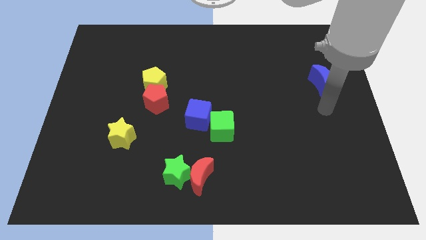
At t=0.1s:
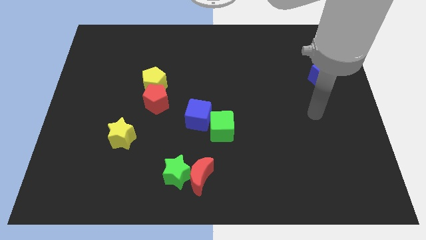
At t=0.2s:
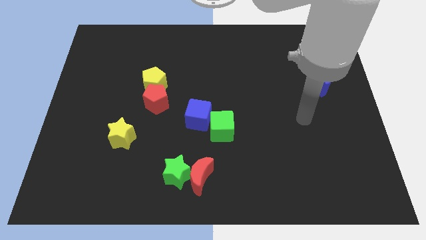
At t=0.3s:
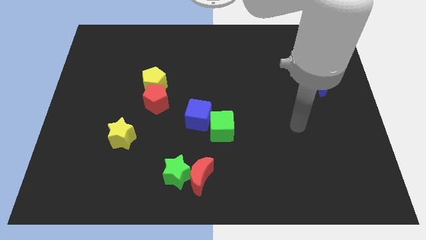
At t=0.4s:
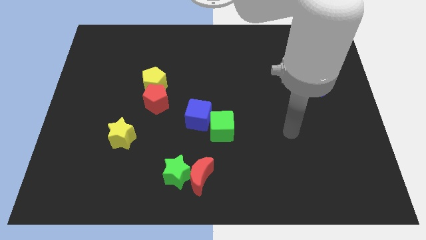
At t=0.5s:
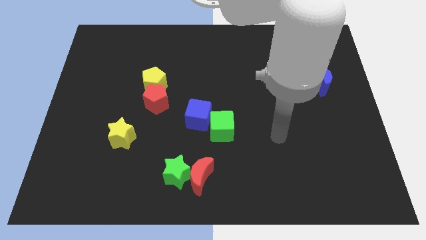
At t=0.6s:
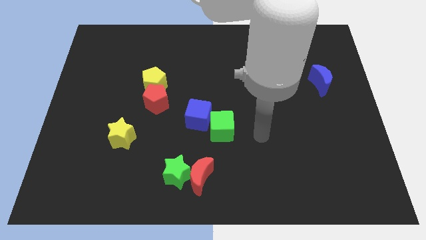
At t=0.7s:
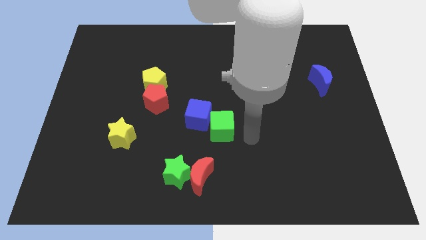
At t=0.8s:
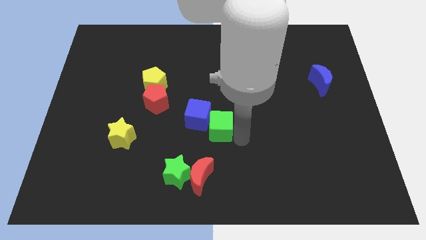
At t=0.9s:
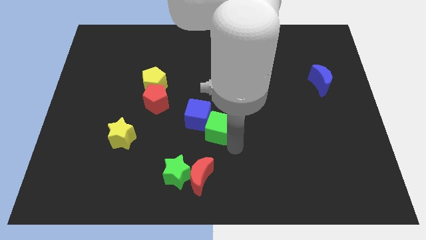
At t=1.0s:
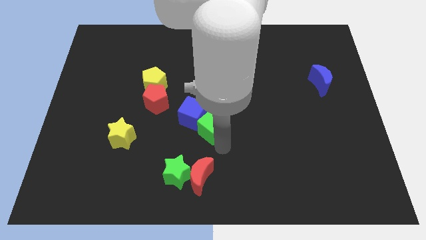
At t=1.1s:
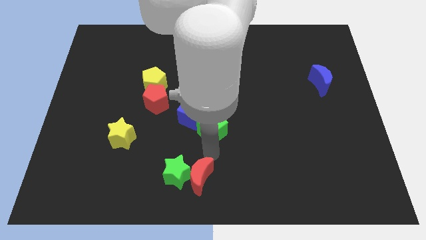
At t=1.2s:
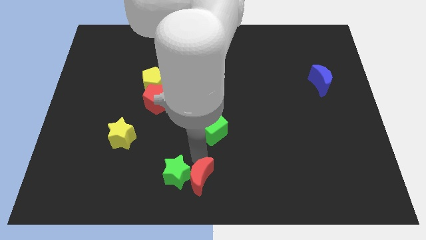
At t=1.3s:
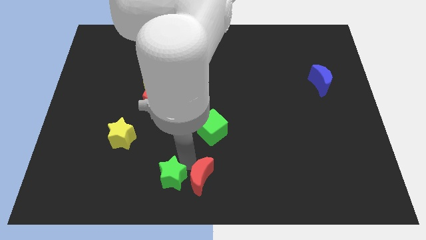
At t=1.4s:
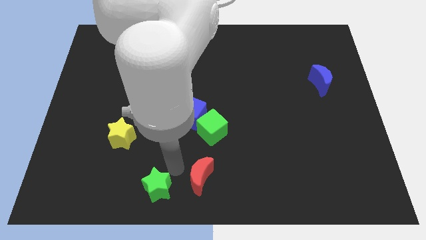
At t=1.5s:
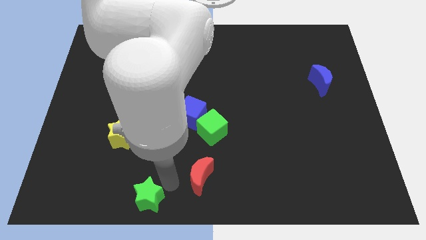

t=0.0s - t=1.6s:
move the red moon away from the green star

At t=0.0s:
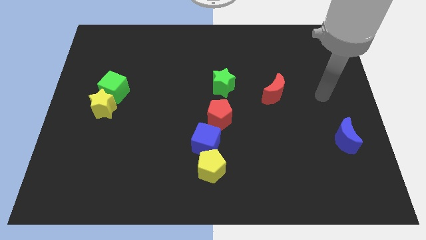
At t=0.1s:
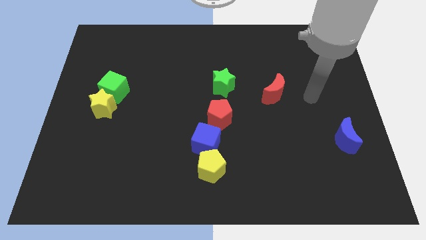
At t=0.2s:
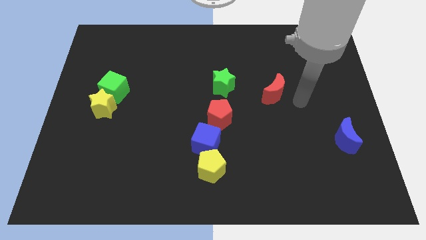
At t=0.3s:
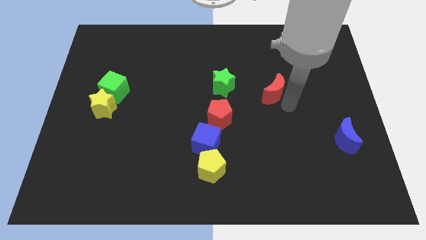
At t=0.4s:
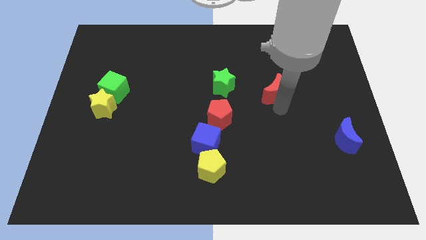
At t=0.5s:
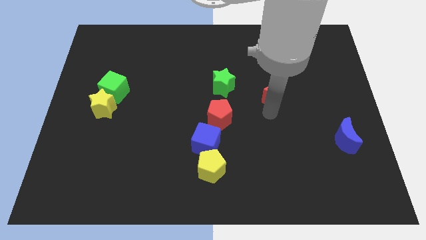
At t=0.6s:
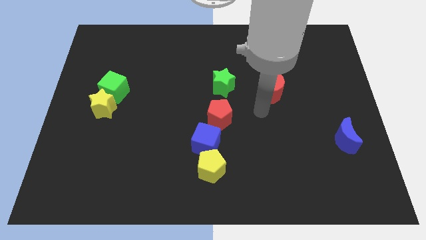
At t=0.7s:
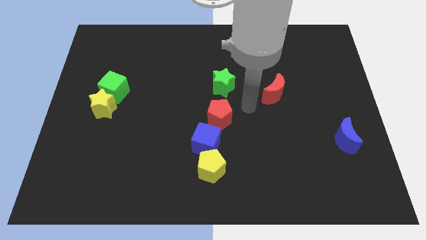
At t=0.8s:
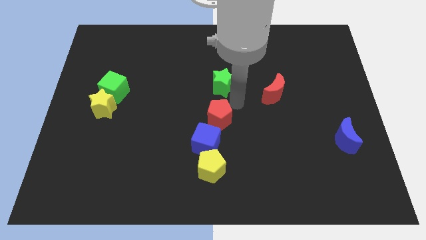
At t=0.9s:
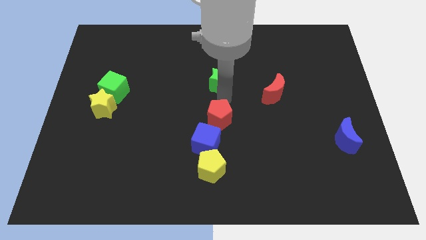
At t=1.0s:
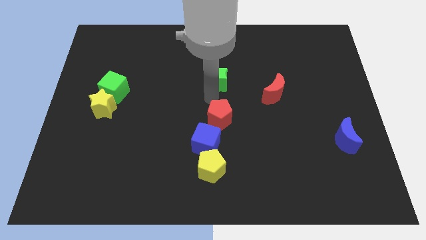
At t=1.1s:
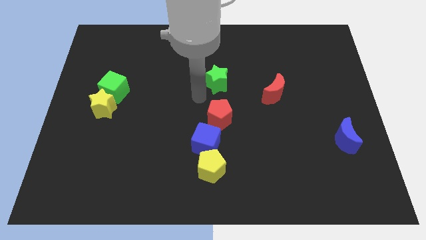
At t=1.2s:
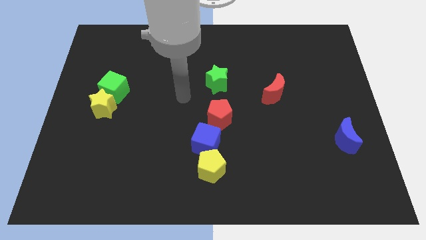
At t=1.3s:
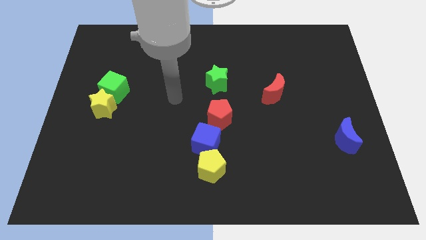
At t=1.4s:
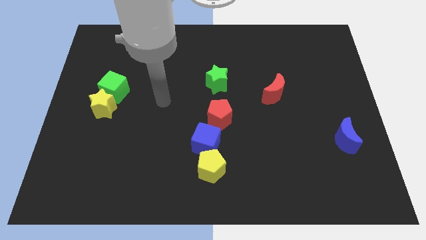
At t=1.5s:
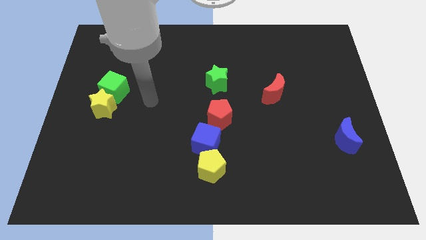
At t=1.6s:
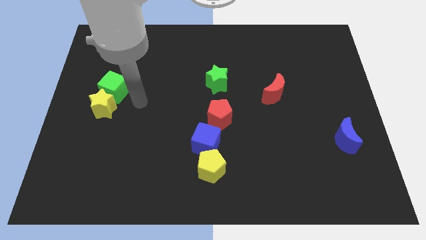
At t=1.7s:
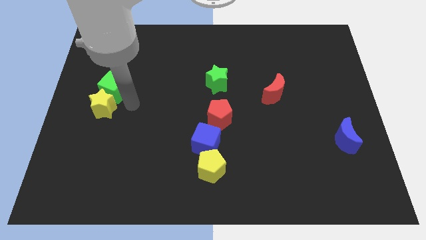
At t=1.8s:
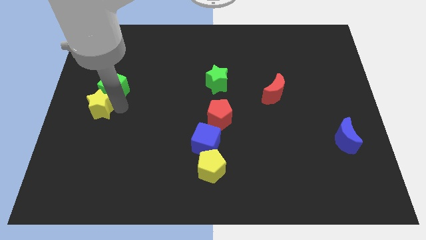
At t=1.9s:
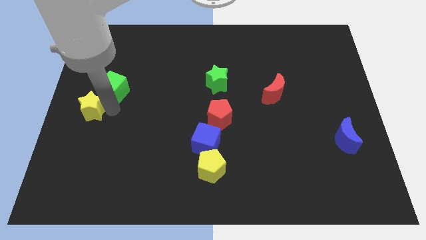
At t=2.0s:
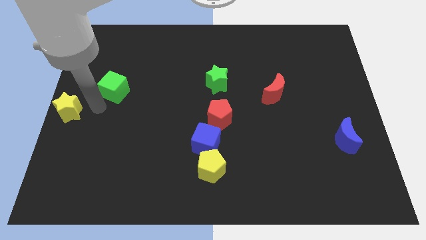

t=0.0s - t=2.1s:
move the green cube away from the yellow star

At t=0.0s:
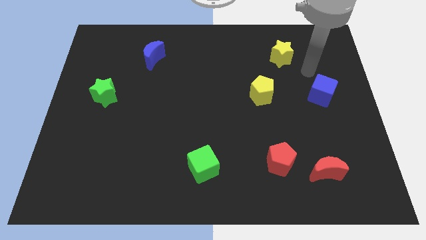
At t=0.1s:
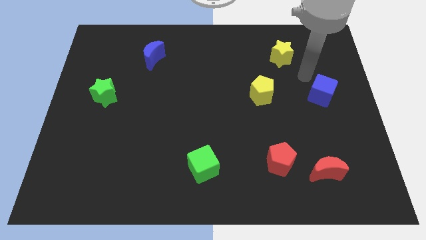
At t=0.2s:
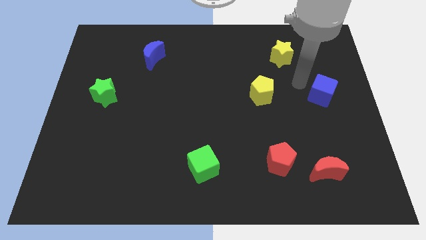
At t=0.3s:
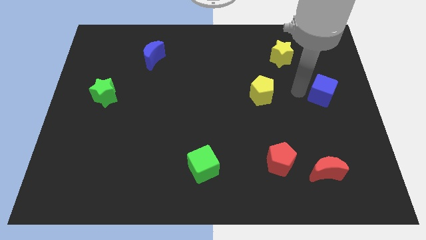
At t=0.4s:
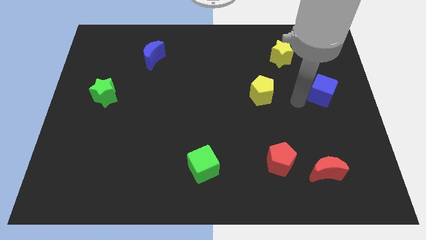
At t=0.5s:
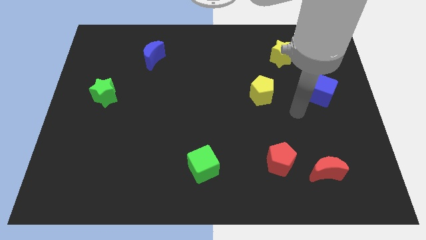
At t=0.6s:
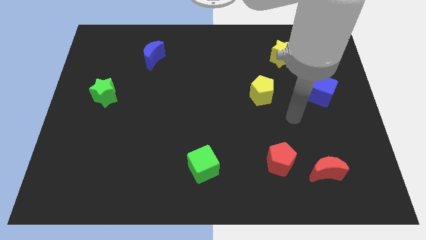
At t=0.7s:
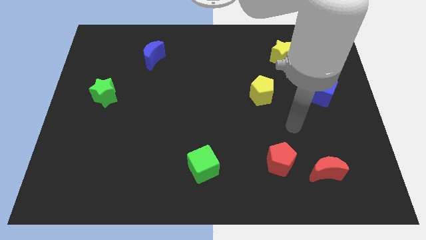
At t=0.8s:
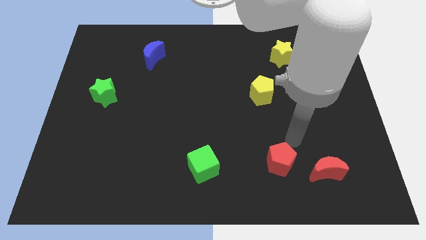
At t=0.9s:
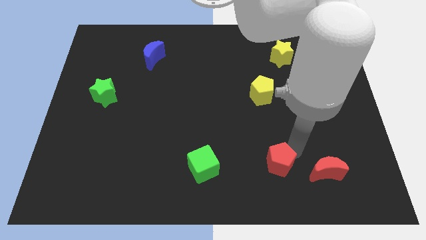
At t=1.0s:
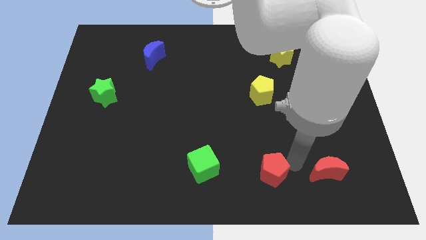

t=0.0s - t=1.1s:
move the red moon away from the red pentagon

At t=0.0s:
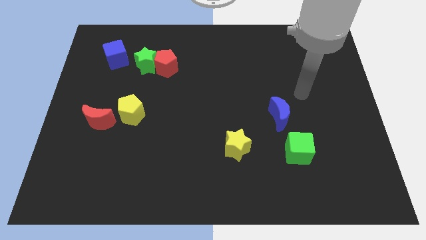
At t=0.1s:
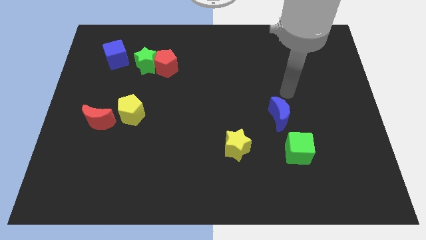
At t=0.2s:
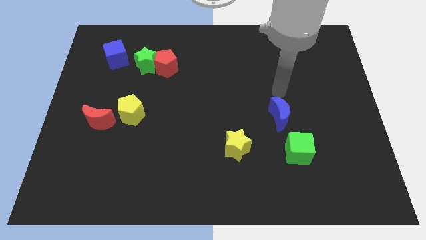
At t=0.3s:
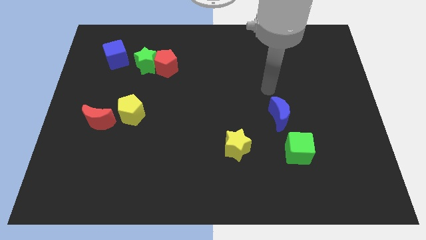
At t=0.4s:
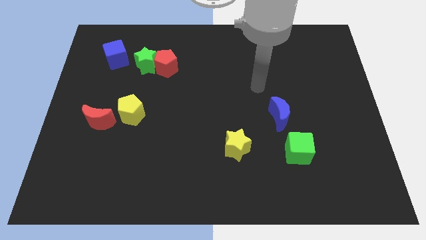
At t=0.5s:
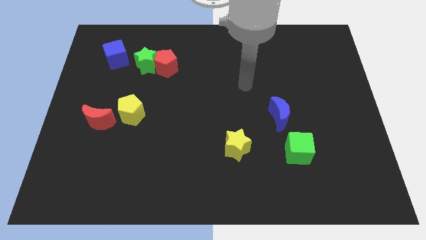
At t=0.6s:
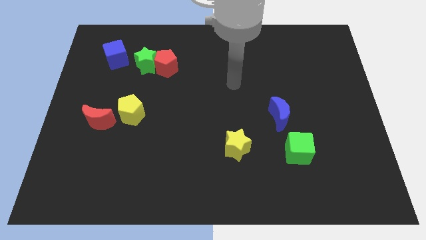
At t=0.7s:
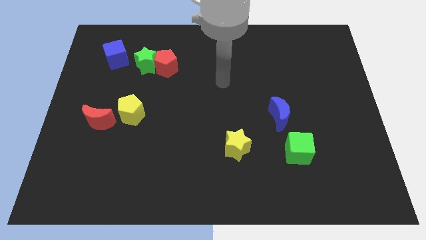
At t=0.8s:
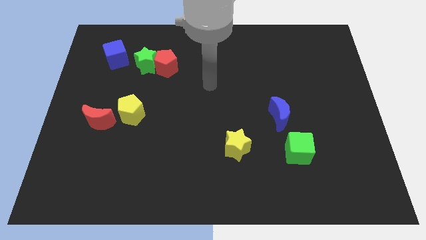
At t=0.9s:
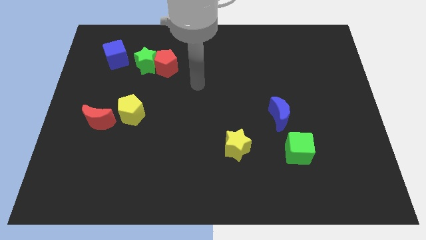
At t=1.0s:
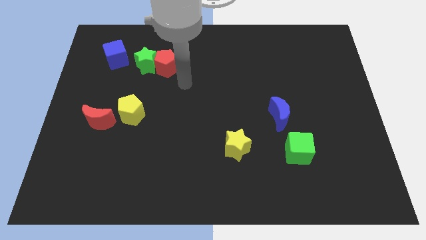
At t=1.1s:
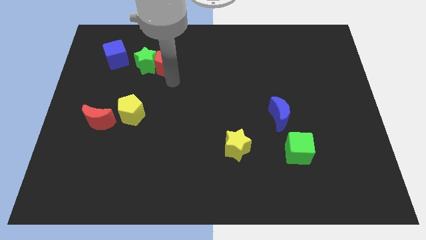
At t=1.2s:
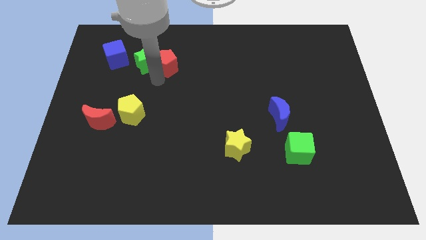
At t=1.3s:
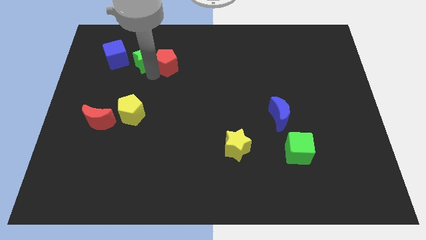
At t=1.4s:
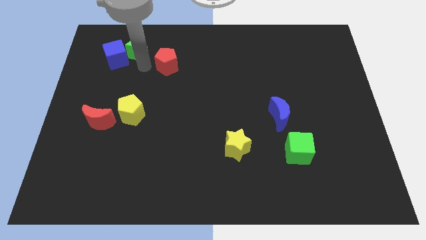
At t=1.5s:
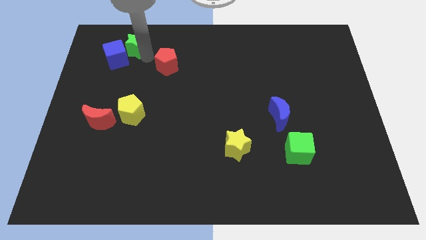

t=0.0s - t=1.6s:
move the red pentagon away from the green star

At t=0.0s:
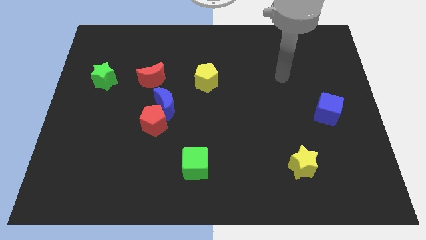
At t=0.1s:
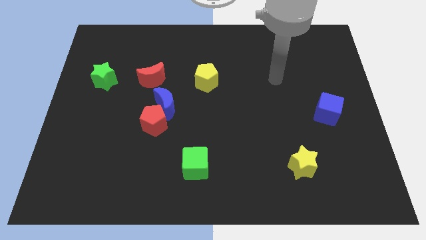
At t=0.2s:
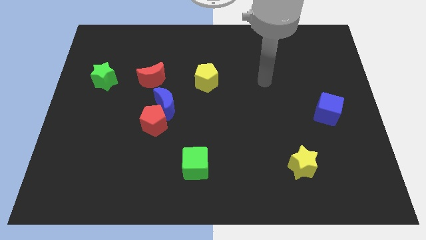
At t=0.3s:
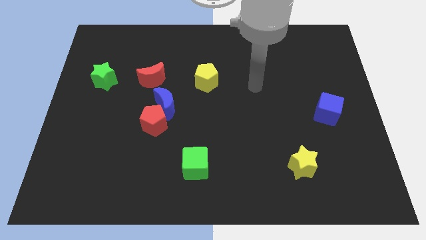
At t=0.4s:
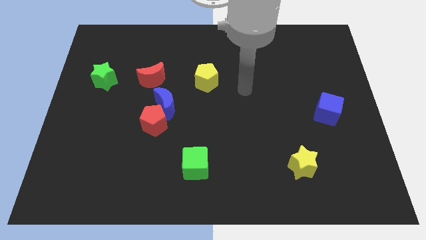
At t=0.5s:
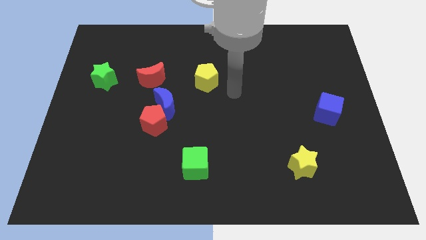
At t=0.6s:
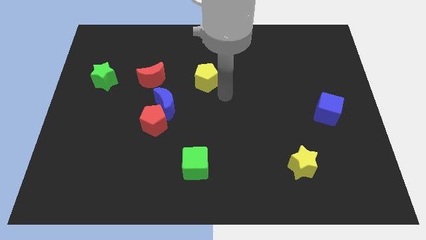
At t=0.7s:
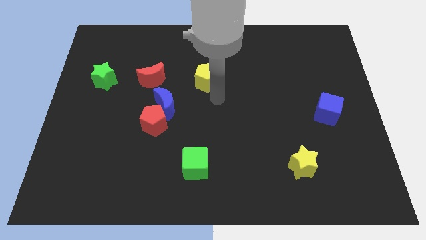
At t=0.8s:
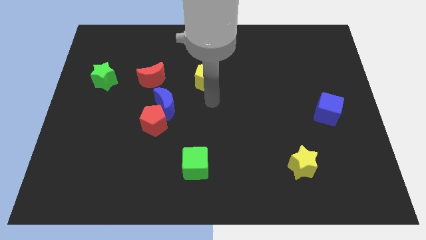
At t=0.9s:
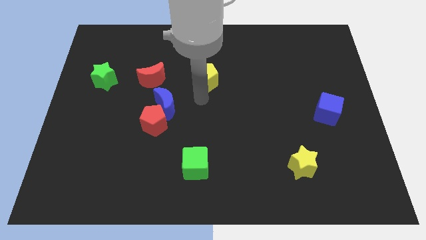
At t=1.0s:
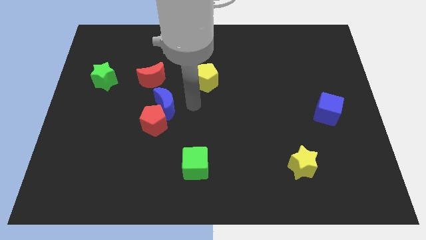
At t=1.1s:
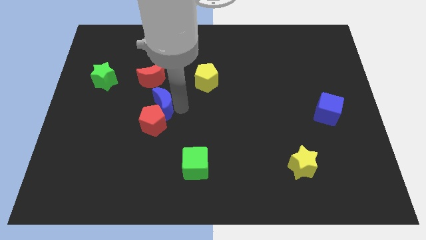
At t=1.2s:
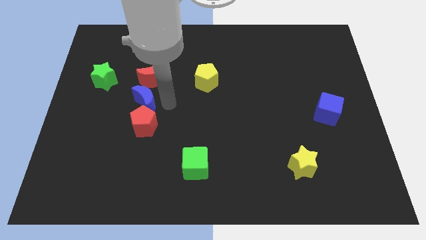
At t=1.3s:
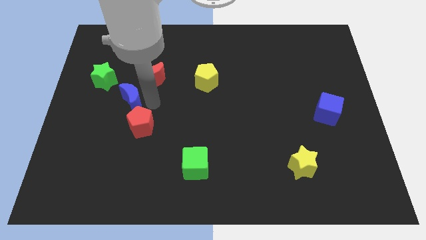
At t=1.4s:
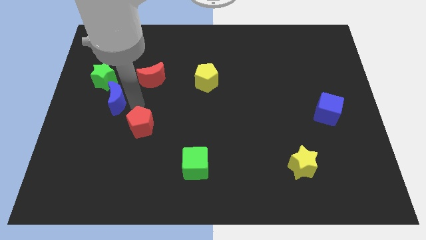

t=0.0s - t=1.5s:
separate the red pentagon from the blue moon

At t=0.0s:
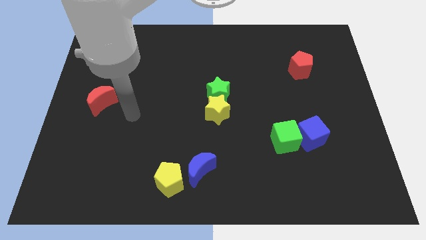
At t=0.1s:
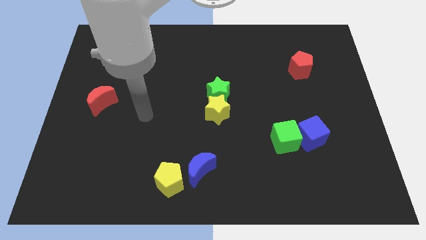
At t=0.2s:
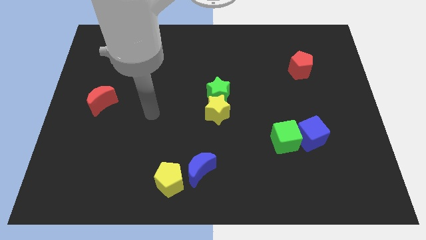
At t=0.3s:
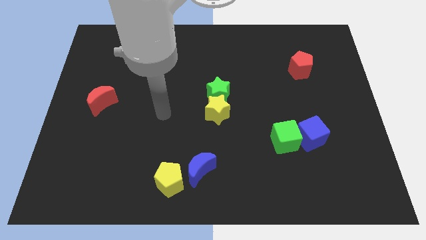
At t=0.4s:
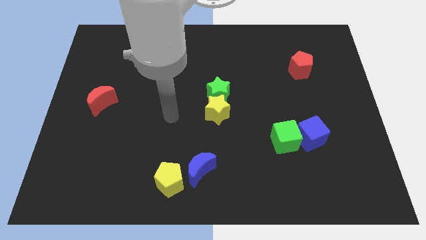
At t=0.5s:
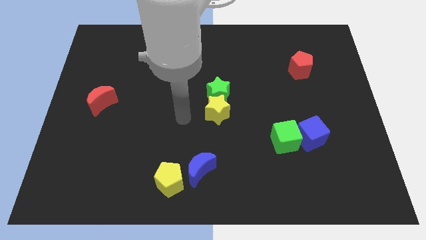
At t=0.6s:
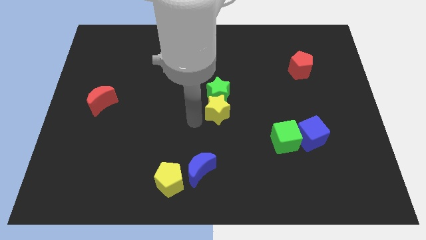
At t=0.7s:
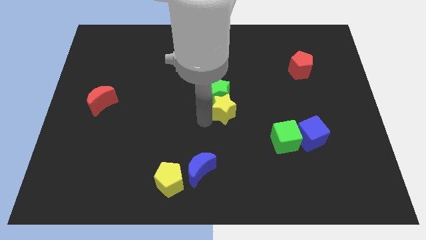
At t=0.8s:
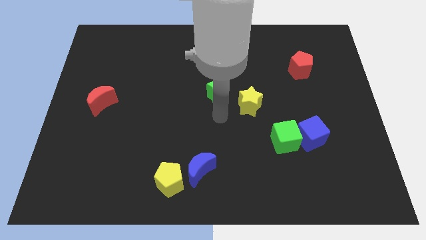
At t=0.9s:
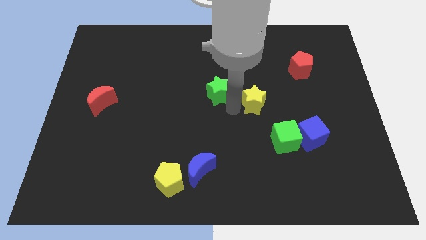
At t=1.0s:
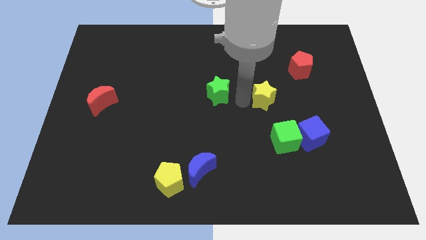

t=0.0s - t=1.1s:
move the green star away from the yellow star

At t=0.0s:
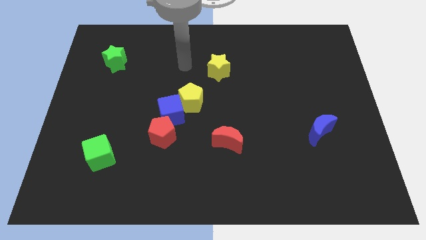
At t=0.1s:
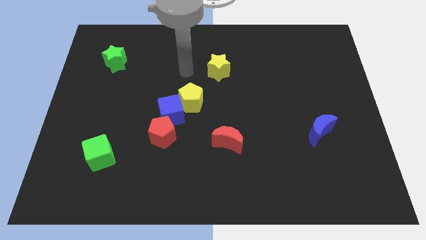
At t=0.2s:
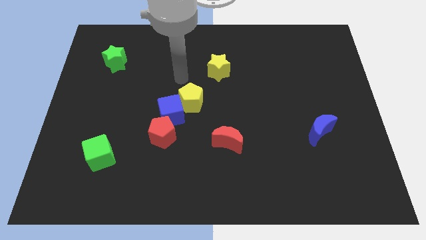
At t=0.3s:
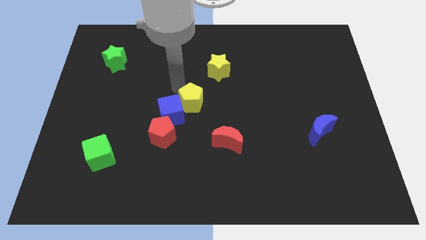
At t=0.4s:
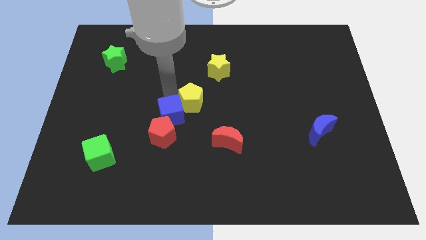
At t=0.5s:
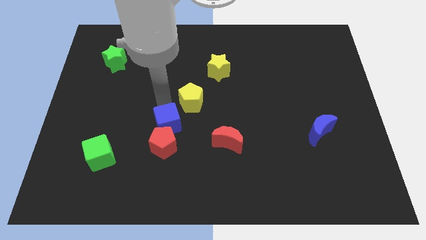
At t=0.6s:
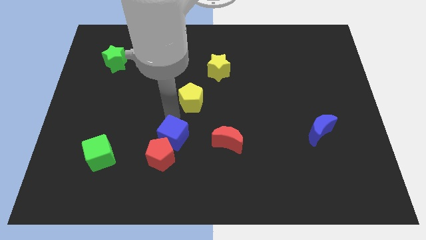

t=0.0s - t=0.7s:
pull the yellow pentagon apart from the blue cube
